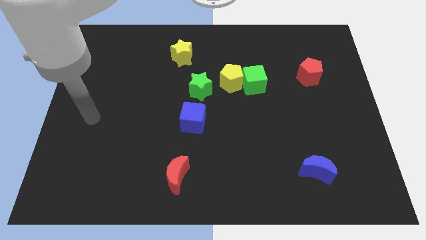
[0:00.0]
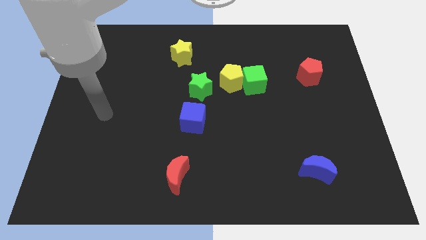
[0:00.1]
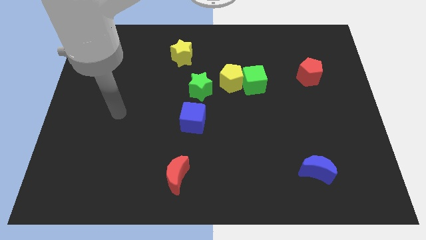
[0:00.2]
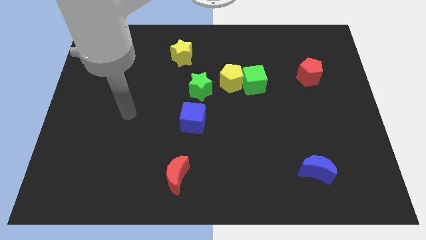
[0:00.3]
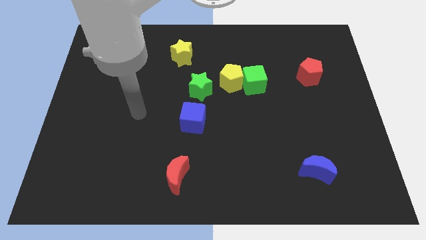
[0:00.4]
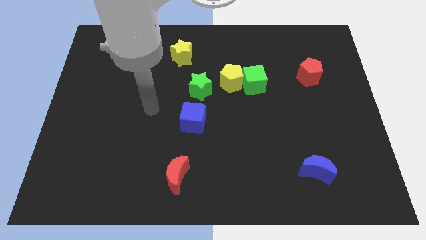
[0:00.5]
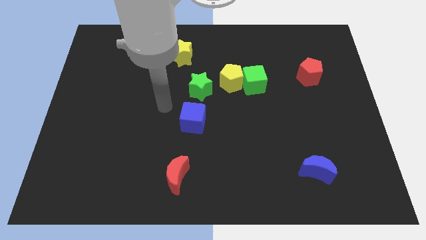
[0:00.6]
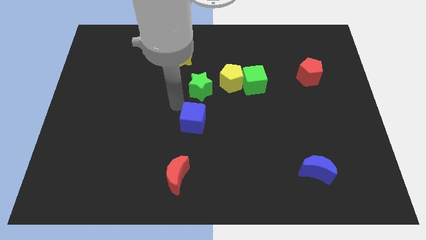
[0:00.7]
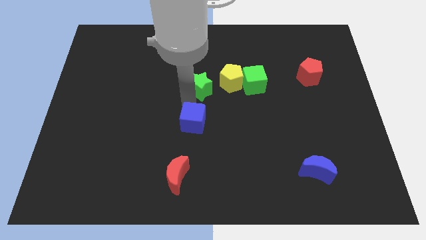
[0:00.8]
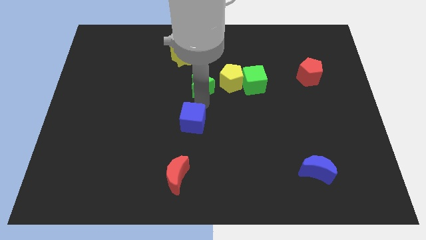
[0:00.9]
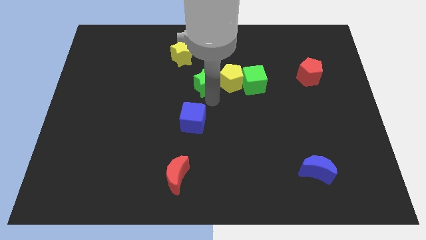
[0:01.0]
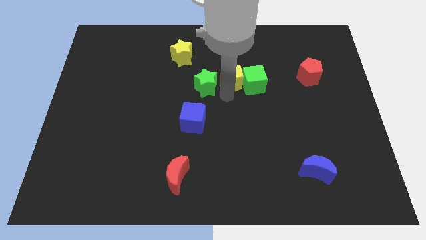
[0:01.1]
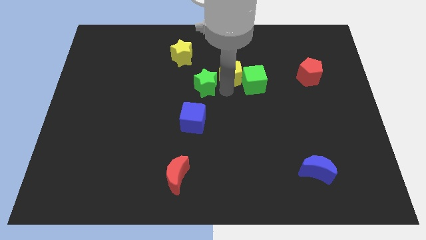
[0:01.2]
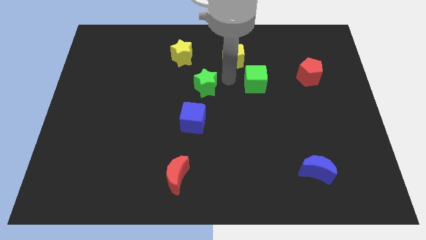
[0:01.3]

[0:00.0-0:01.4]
pull the green cube apart from the yellow pentagon

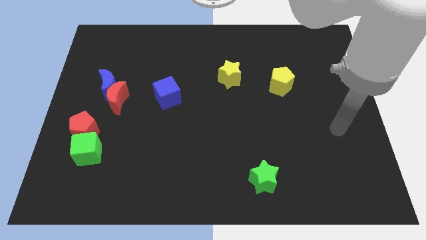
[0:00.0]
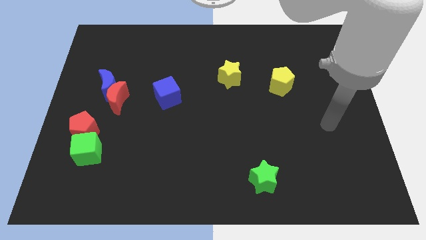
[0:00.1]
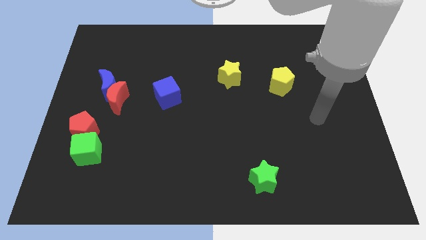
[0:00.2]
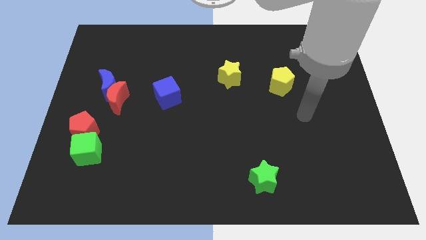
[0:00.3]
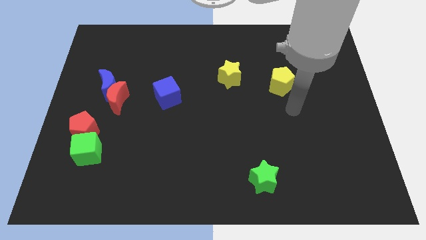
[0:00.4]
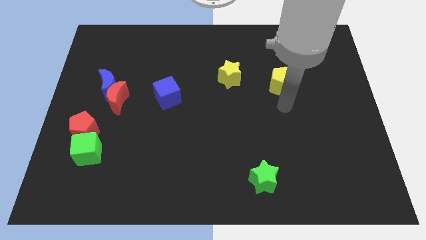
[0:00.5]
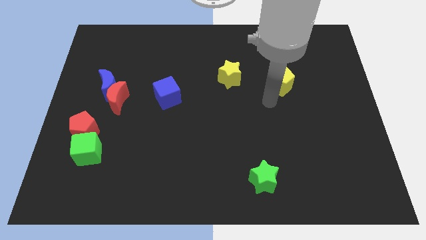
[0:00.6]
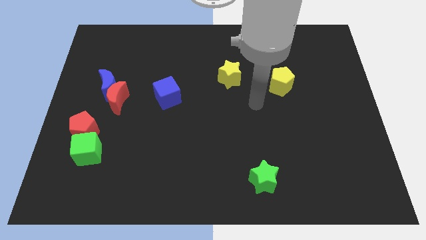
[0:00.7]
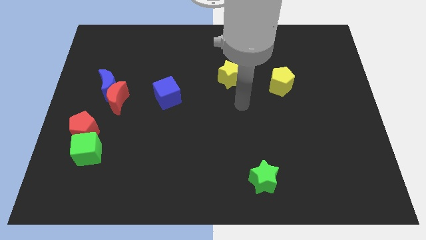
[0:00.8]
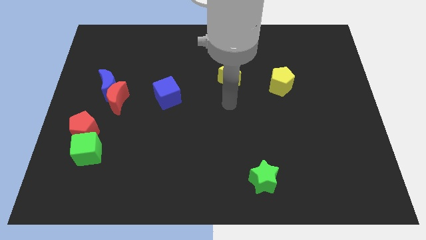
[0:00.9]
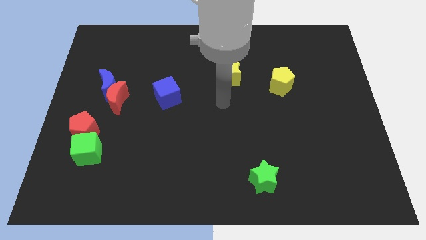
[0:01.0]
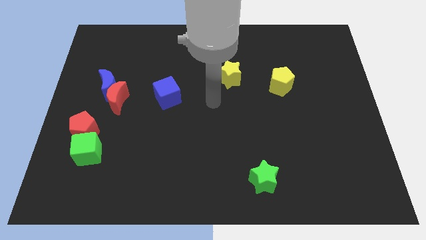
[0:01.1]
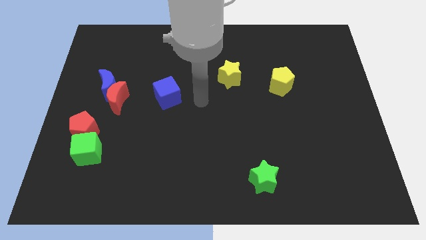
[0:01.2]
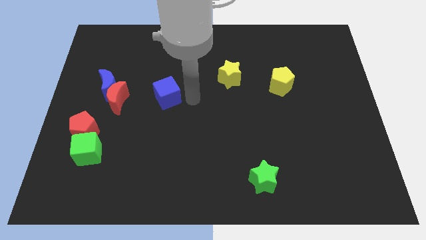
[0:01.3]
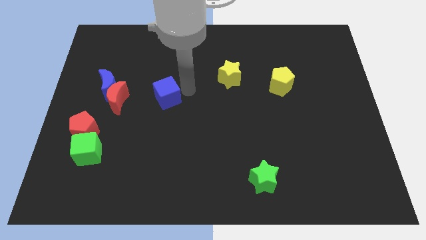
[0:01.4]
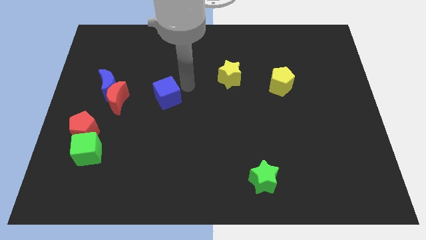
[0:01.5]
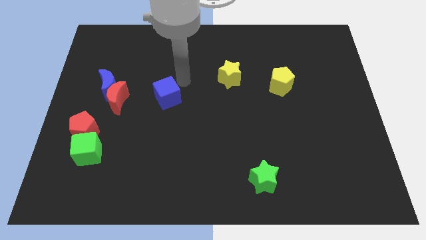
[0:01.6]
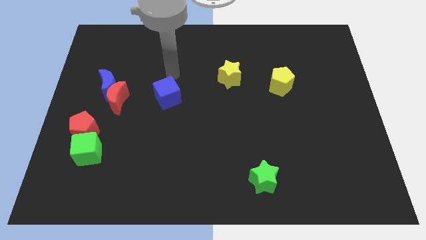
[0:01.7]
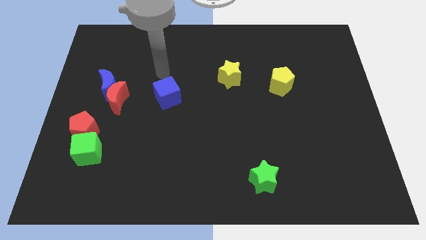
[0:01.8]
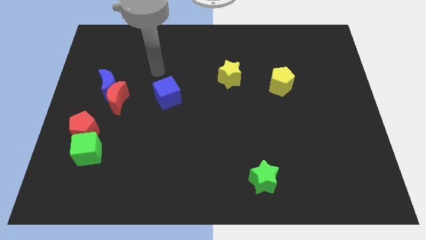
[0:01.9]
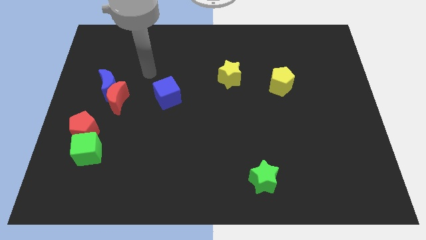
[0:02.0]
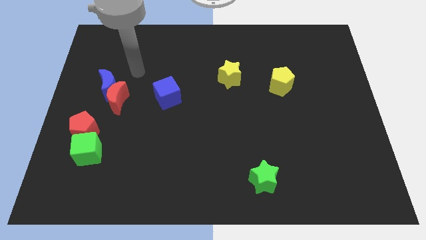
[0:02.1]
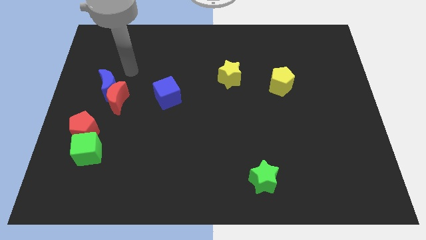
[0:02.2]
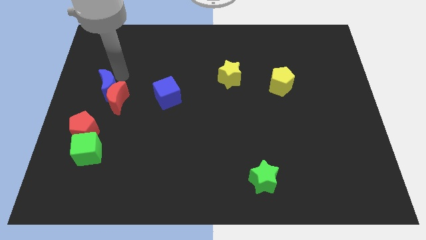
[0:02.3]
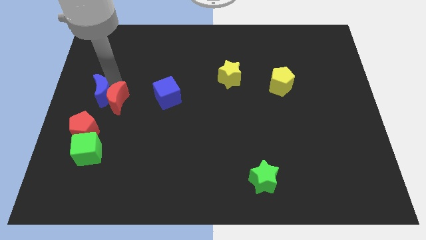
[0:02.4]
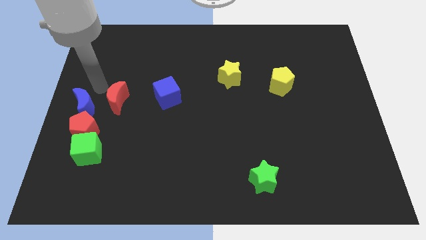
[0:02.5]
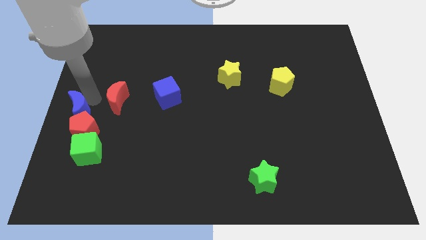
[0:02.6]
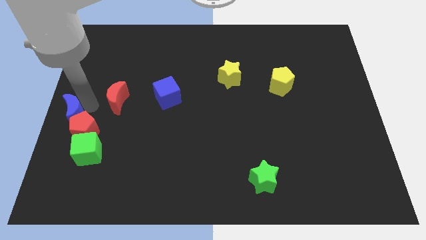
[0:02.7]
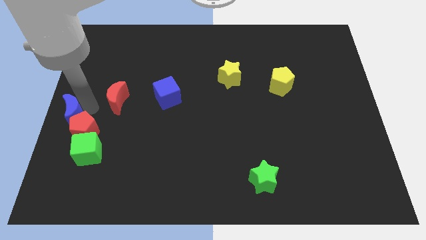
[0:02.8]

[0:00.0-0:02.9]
separate the red moon from the blue moon

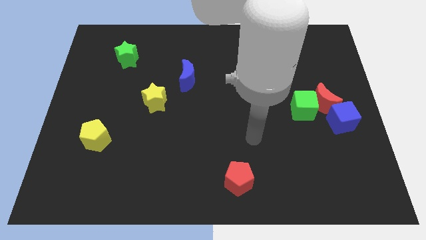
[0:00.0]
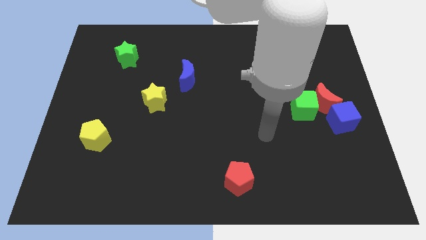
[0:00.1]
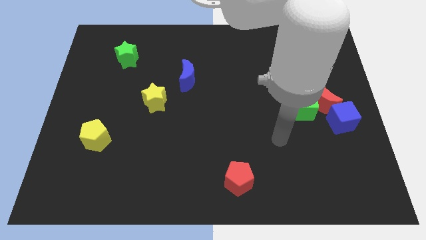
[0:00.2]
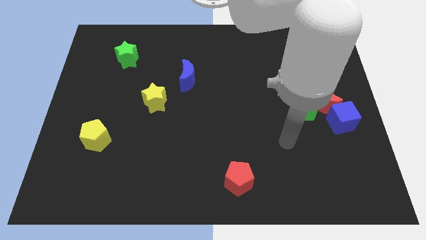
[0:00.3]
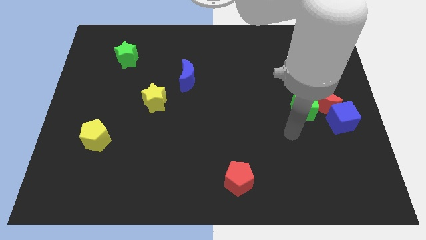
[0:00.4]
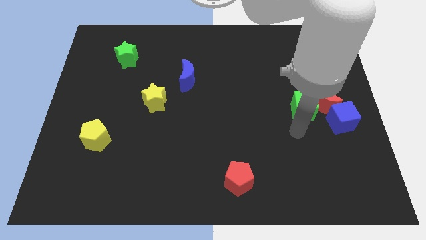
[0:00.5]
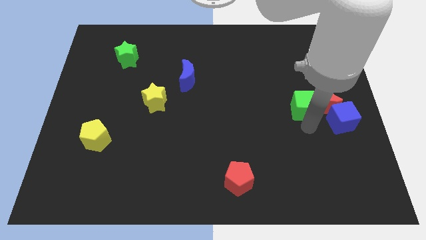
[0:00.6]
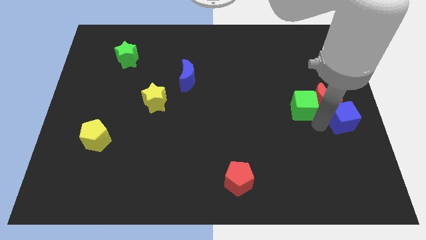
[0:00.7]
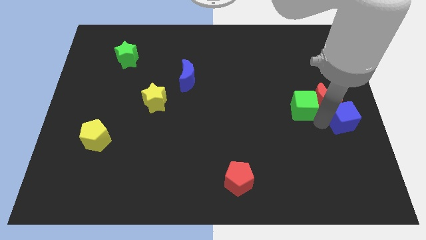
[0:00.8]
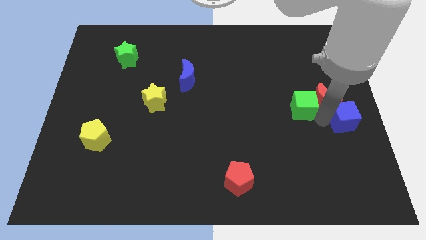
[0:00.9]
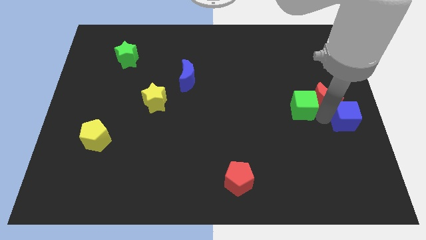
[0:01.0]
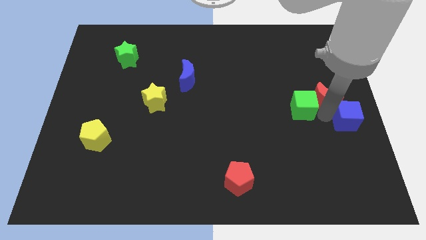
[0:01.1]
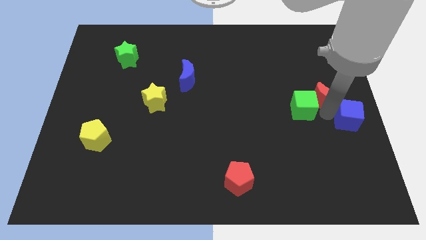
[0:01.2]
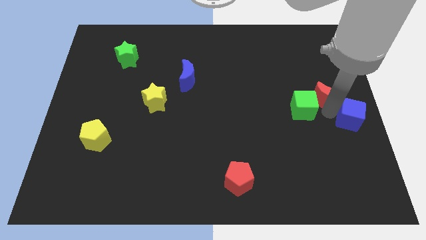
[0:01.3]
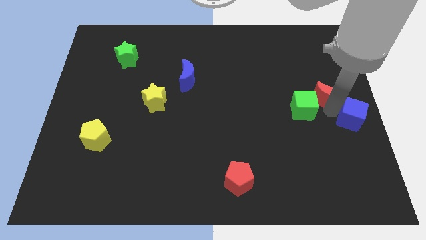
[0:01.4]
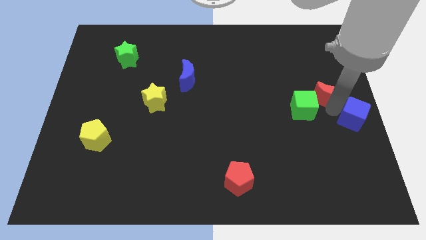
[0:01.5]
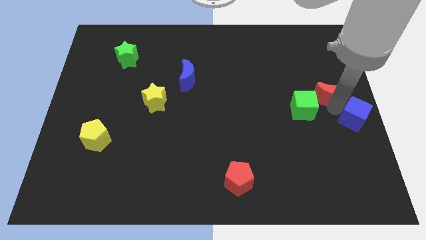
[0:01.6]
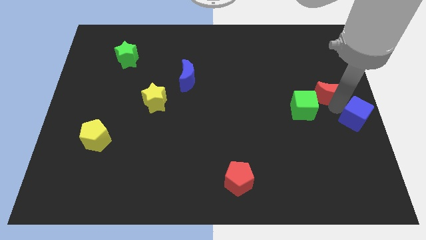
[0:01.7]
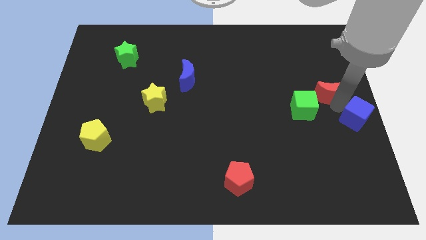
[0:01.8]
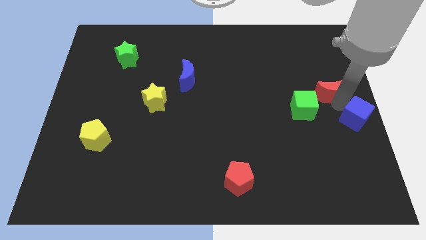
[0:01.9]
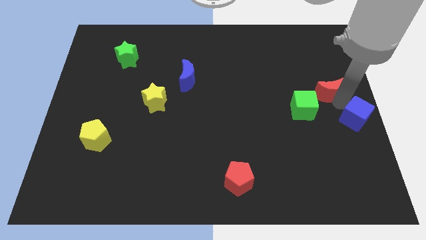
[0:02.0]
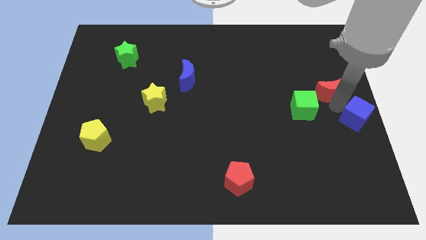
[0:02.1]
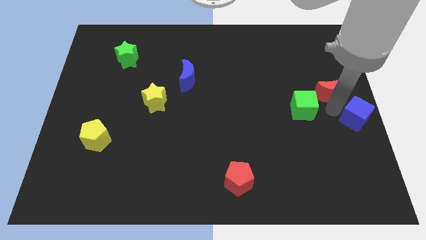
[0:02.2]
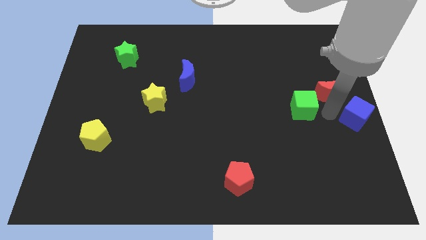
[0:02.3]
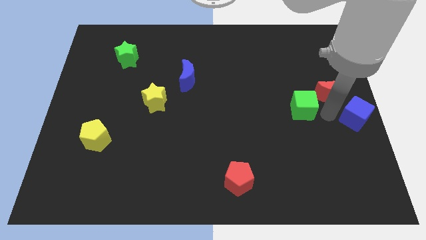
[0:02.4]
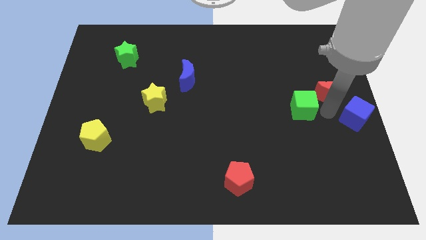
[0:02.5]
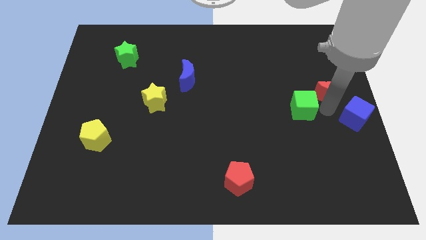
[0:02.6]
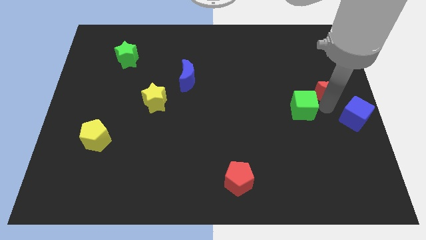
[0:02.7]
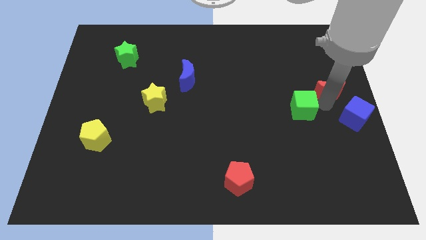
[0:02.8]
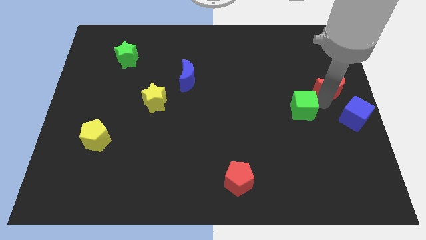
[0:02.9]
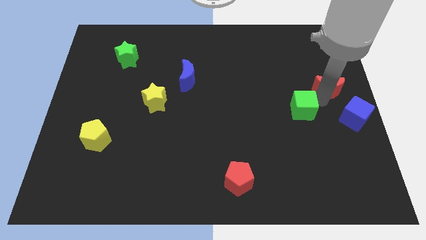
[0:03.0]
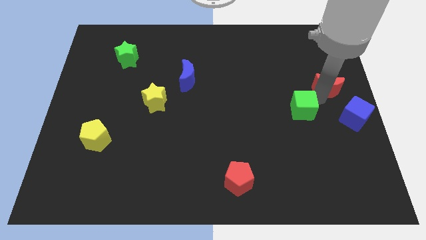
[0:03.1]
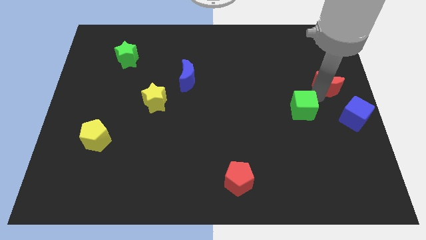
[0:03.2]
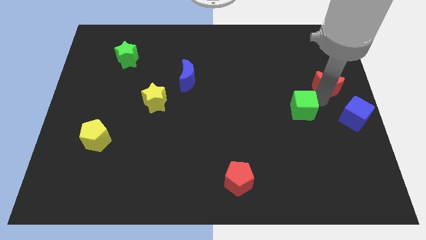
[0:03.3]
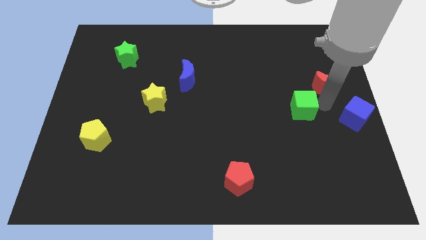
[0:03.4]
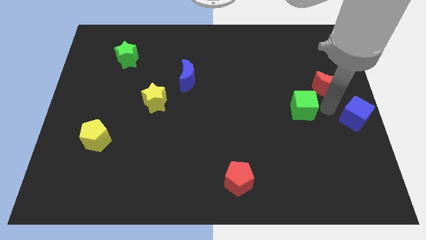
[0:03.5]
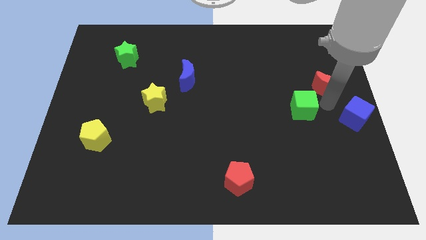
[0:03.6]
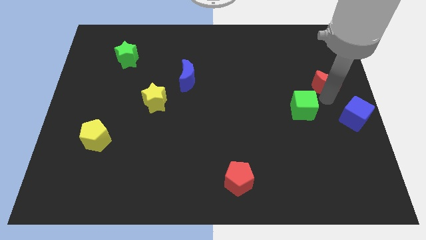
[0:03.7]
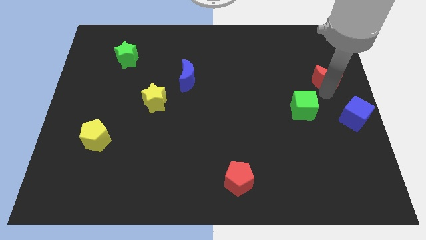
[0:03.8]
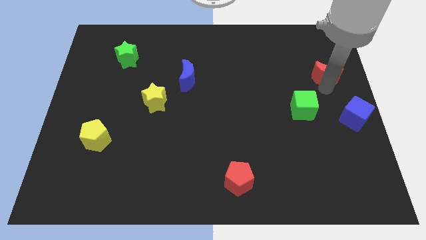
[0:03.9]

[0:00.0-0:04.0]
pull the red moon apart from the green cube and blue cube

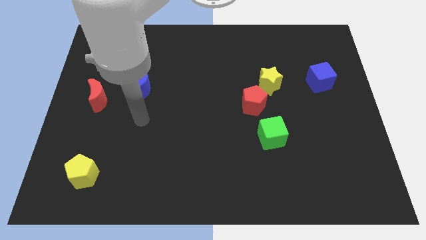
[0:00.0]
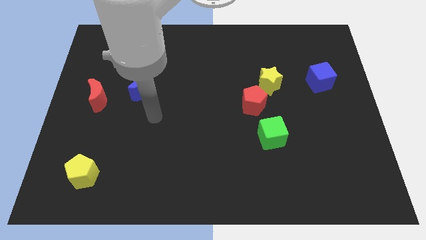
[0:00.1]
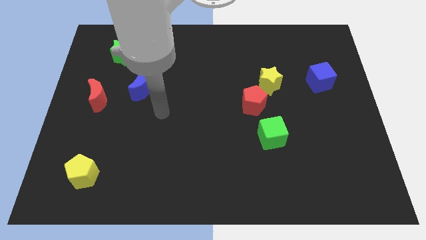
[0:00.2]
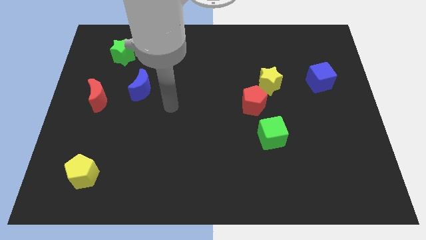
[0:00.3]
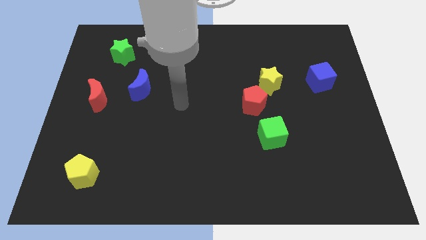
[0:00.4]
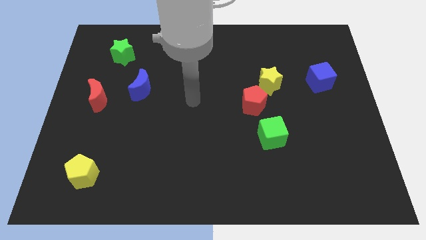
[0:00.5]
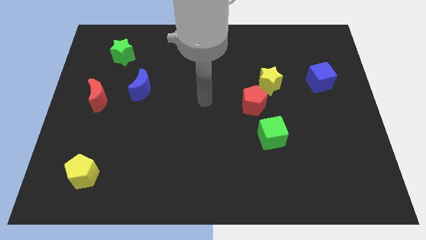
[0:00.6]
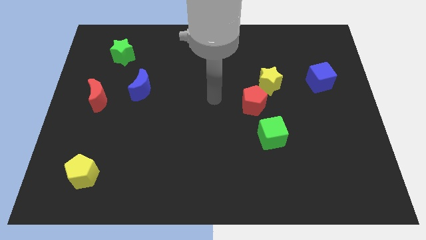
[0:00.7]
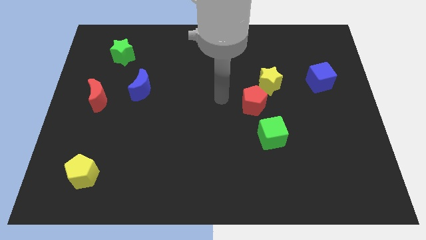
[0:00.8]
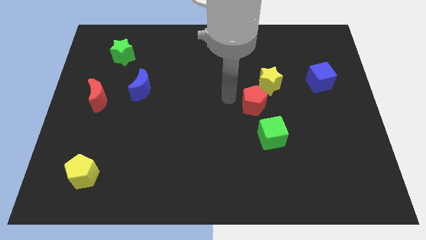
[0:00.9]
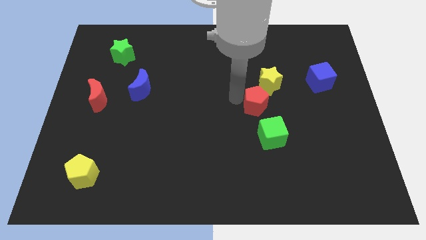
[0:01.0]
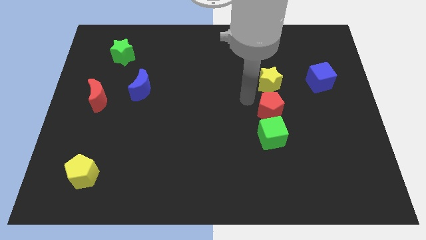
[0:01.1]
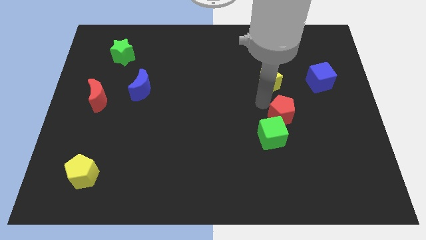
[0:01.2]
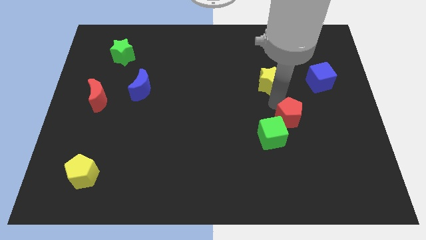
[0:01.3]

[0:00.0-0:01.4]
move the yellow star away from the red pentagon
